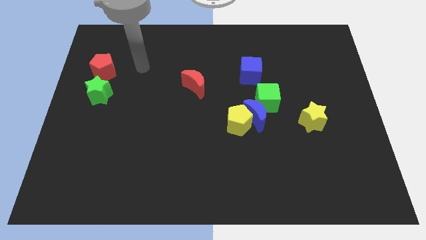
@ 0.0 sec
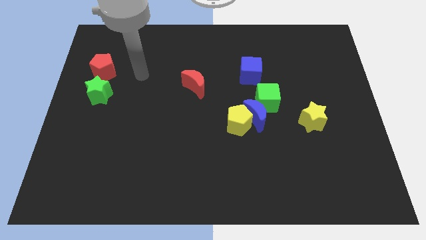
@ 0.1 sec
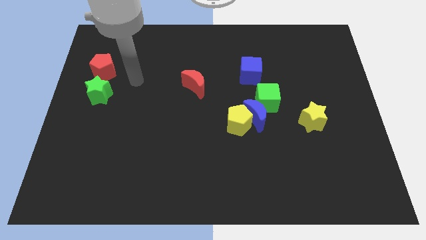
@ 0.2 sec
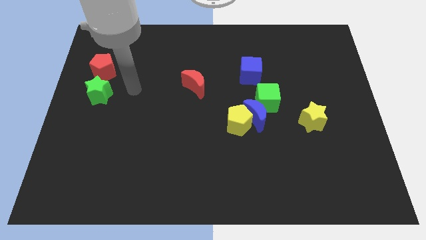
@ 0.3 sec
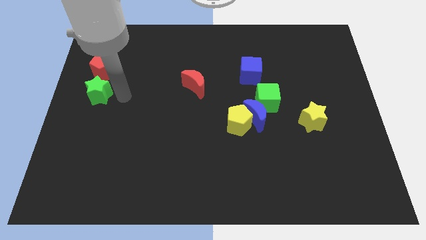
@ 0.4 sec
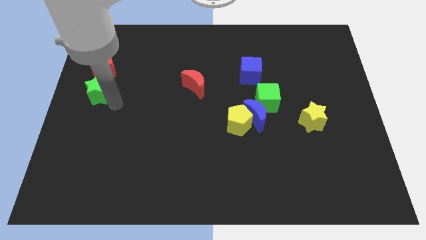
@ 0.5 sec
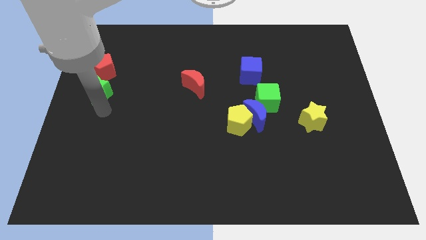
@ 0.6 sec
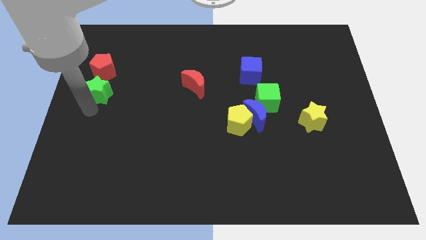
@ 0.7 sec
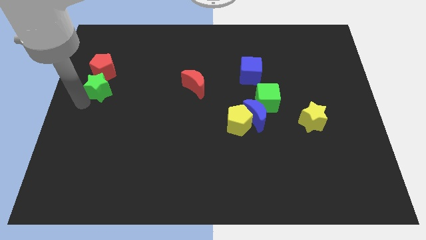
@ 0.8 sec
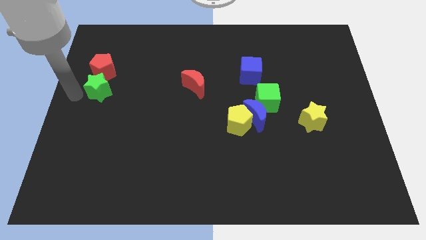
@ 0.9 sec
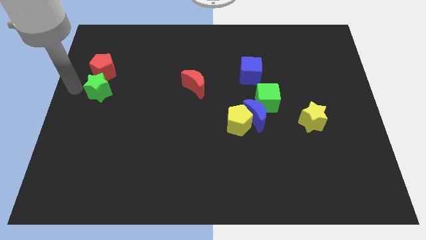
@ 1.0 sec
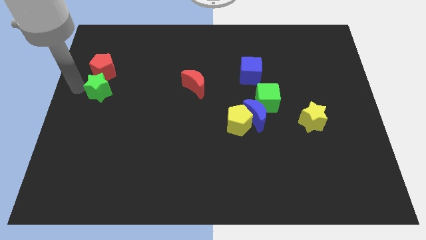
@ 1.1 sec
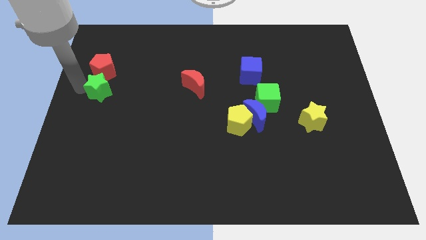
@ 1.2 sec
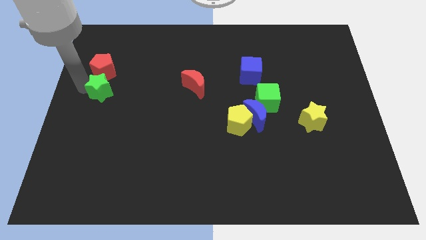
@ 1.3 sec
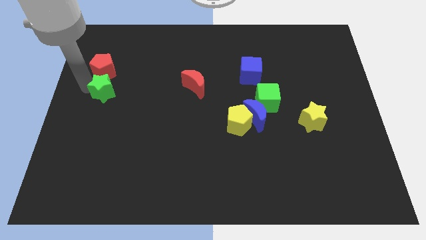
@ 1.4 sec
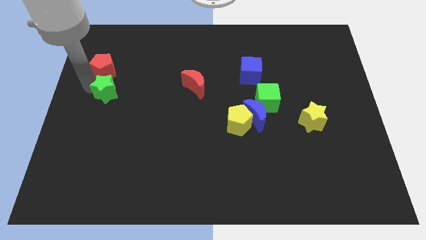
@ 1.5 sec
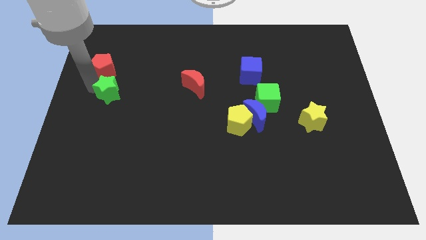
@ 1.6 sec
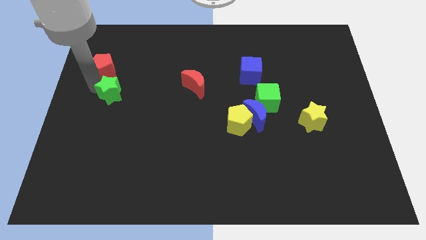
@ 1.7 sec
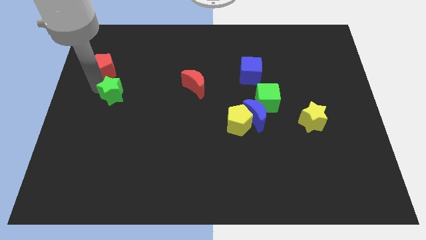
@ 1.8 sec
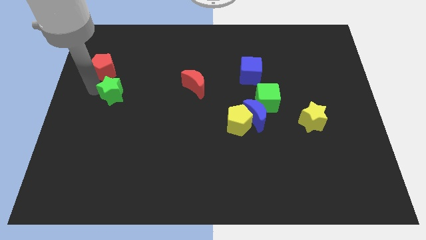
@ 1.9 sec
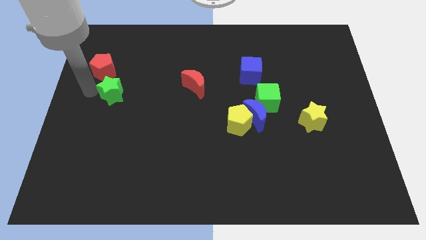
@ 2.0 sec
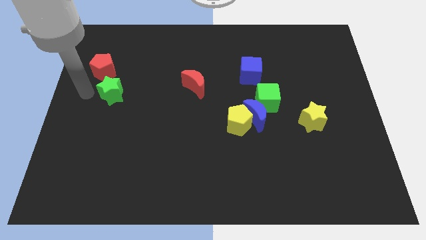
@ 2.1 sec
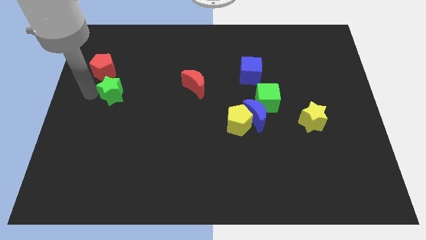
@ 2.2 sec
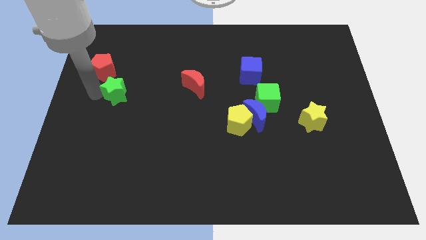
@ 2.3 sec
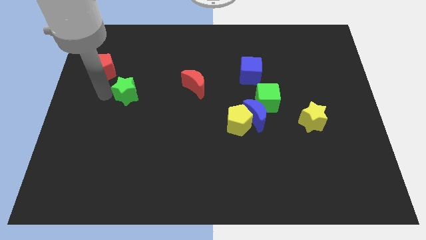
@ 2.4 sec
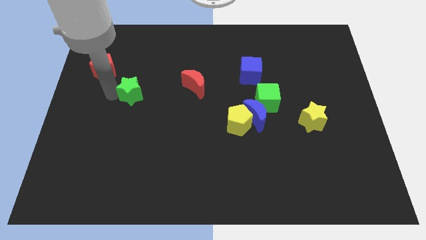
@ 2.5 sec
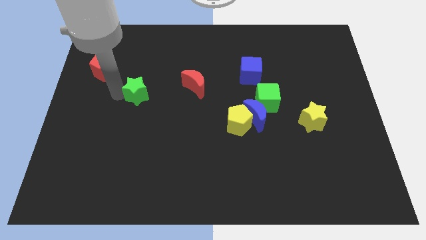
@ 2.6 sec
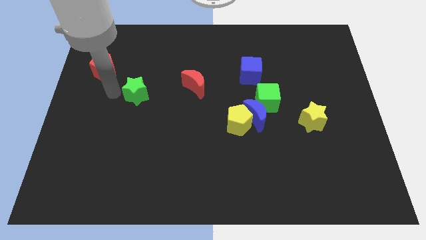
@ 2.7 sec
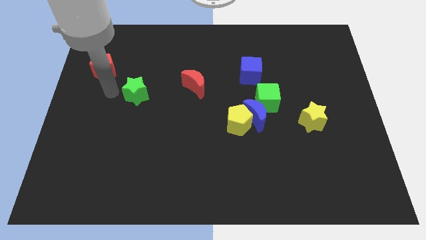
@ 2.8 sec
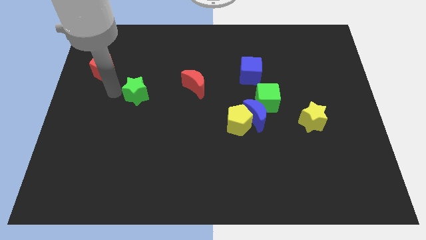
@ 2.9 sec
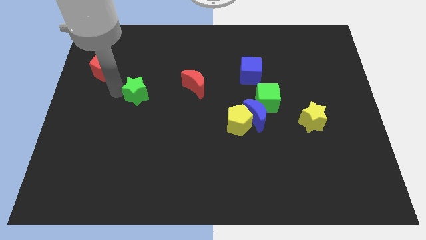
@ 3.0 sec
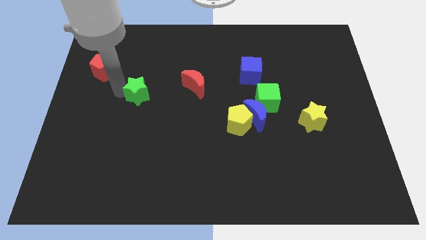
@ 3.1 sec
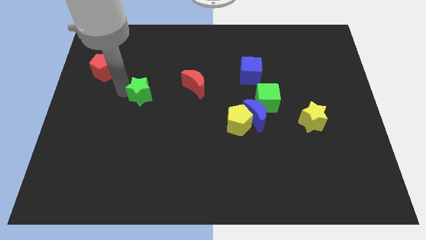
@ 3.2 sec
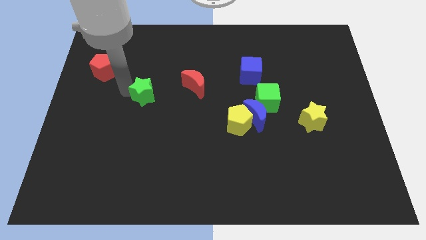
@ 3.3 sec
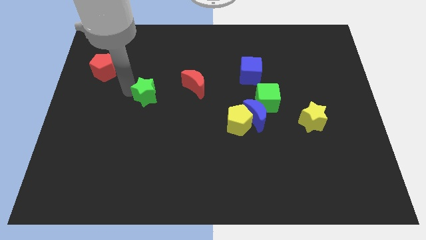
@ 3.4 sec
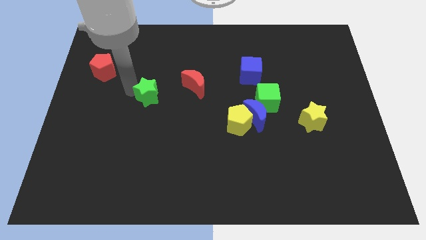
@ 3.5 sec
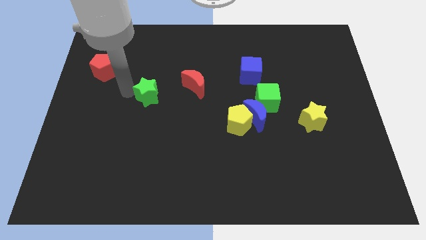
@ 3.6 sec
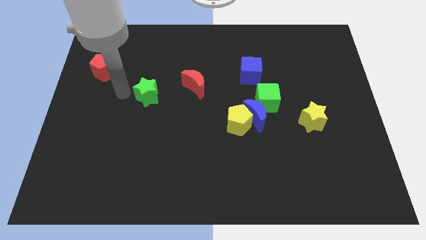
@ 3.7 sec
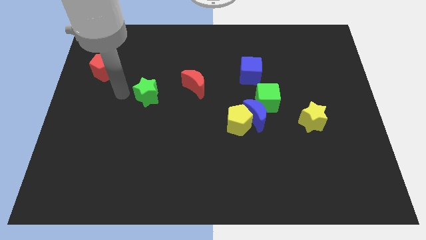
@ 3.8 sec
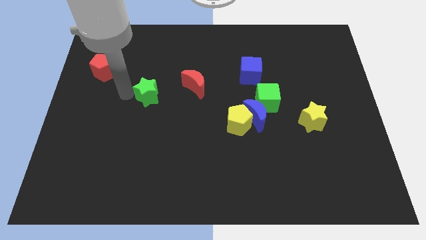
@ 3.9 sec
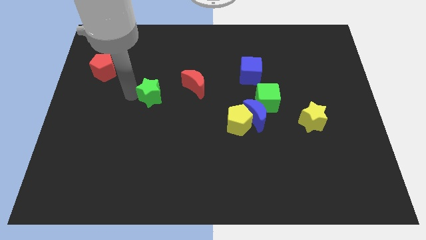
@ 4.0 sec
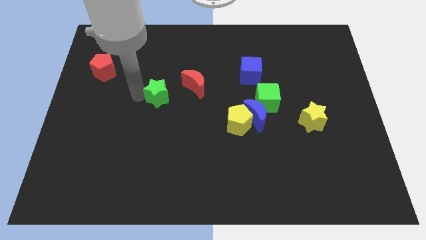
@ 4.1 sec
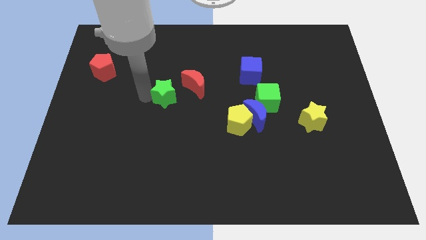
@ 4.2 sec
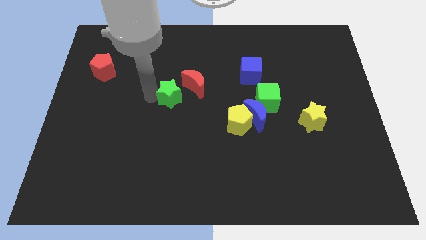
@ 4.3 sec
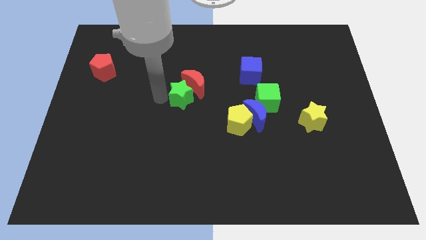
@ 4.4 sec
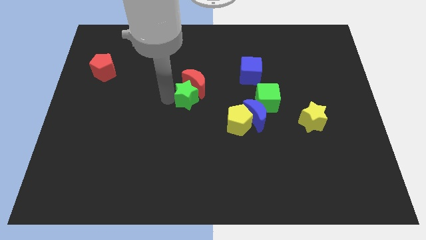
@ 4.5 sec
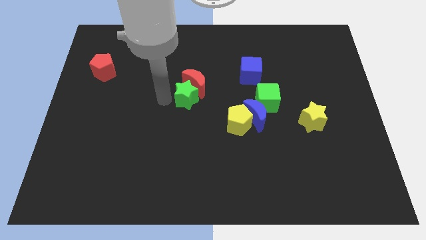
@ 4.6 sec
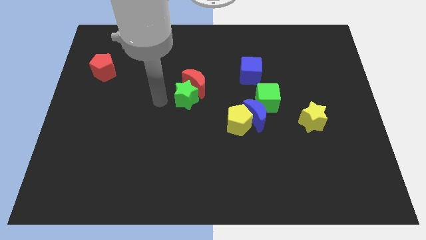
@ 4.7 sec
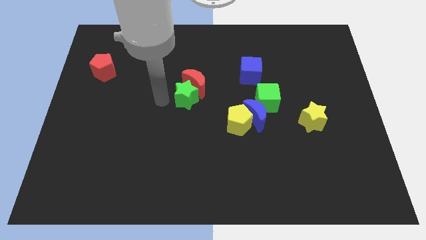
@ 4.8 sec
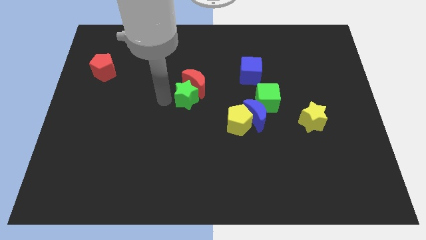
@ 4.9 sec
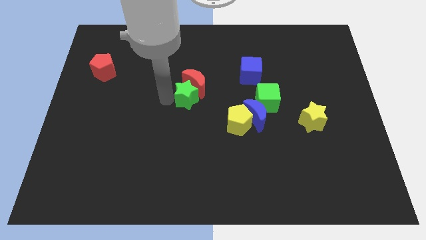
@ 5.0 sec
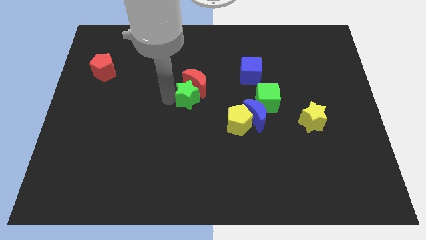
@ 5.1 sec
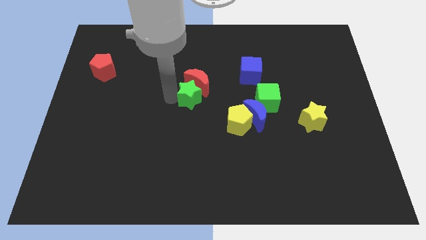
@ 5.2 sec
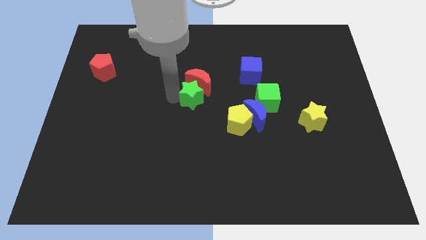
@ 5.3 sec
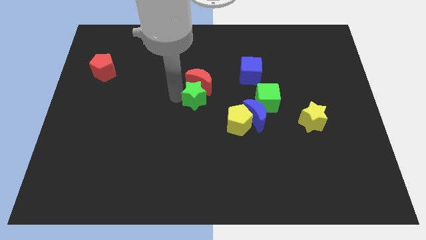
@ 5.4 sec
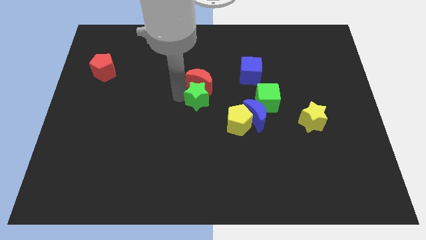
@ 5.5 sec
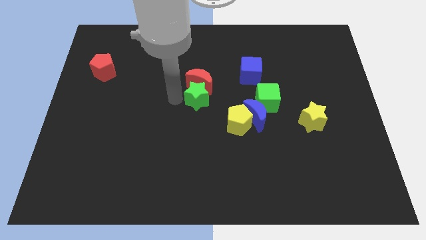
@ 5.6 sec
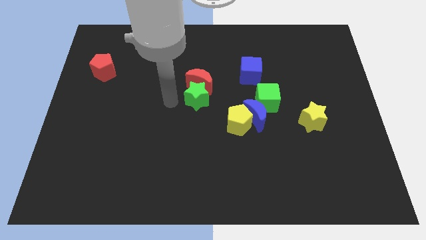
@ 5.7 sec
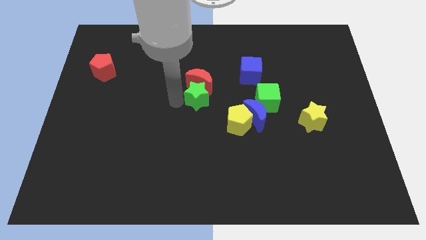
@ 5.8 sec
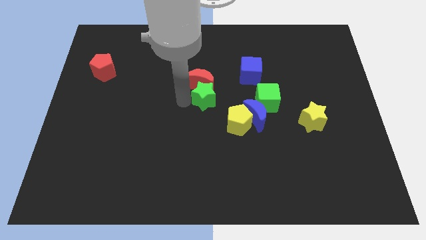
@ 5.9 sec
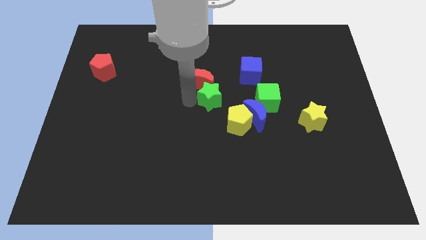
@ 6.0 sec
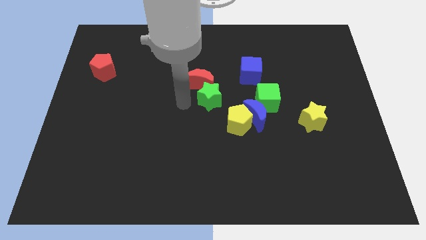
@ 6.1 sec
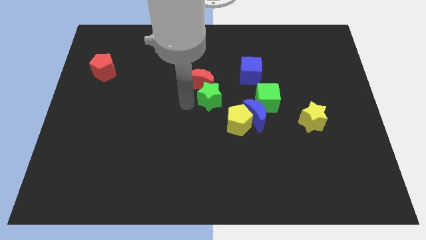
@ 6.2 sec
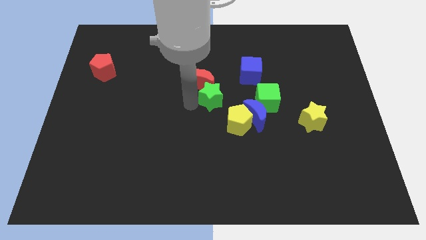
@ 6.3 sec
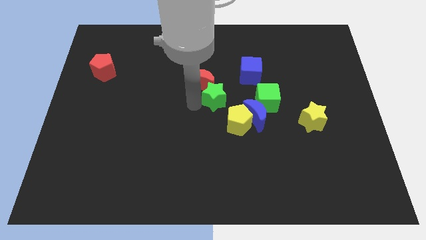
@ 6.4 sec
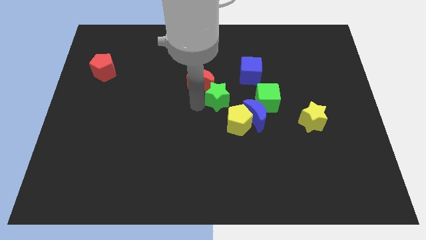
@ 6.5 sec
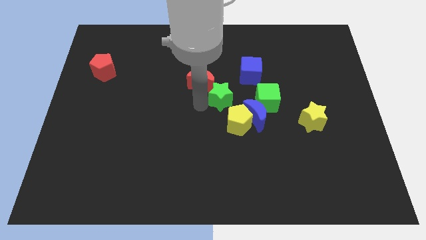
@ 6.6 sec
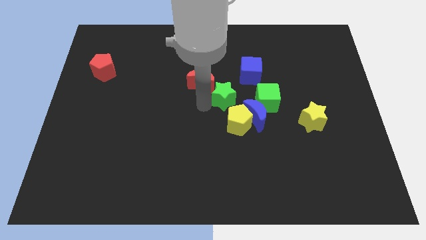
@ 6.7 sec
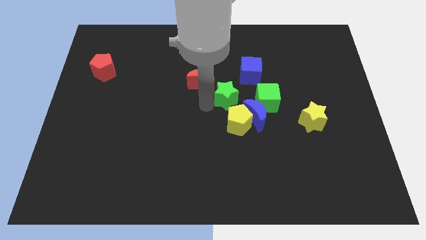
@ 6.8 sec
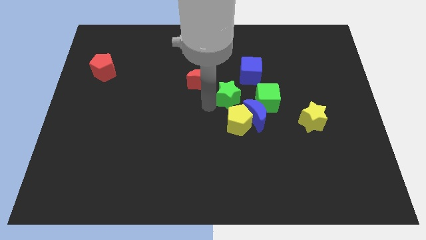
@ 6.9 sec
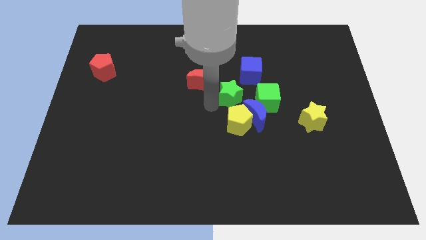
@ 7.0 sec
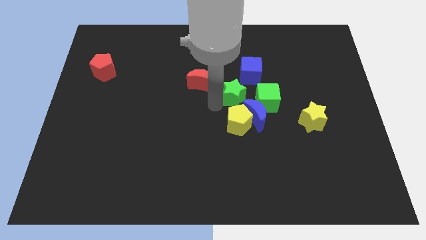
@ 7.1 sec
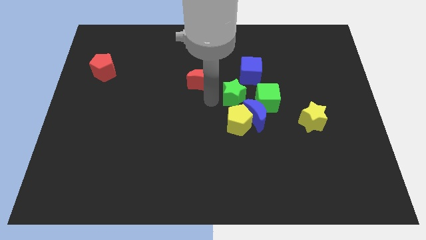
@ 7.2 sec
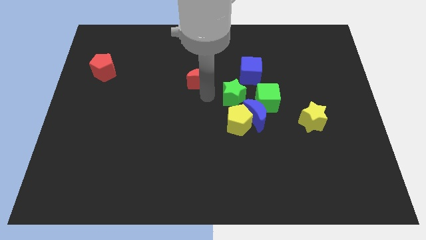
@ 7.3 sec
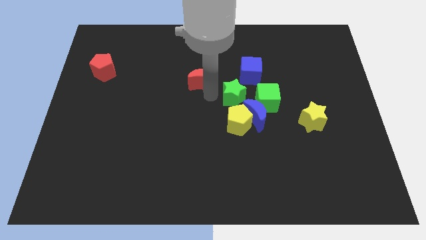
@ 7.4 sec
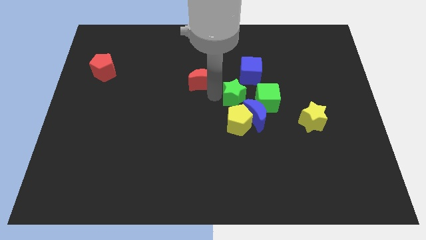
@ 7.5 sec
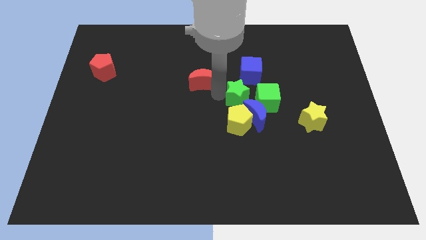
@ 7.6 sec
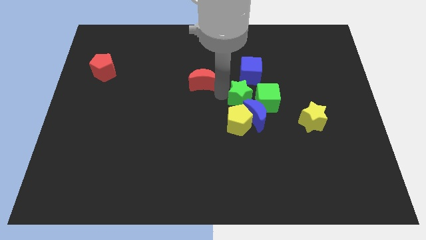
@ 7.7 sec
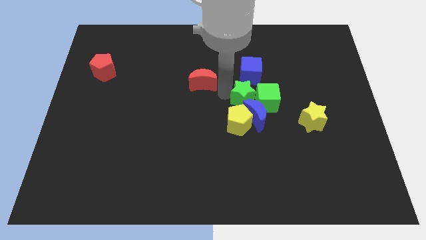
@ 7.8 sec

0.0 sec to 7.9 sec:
slide the green star next to the green cube
